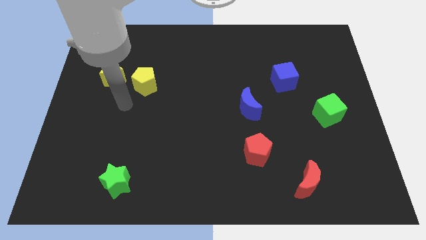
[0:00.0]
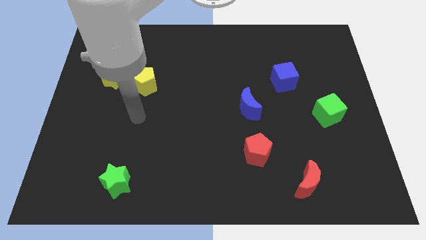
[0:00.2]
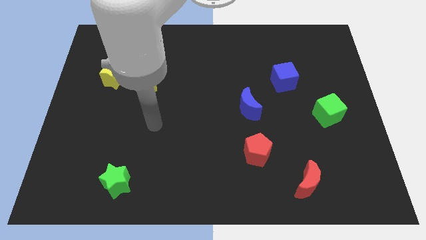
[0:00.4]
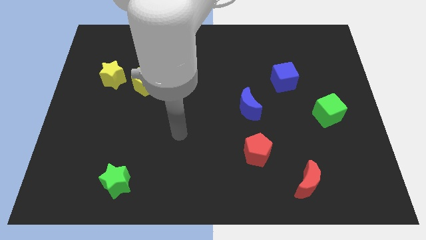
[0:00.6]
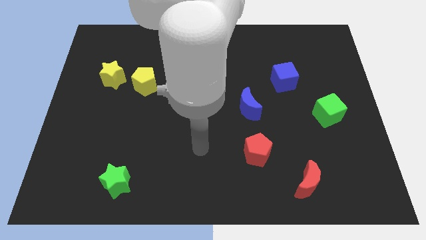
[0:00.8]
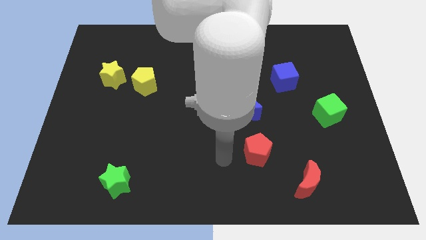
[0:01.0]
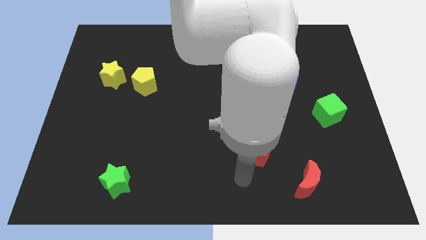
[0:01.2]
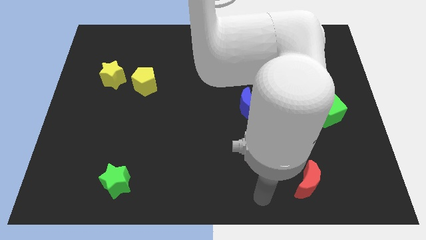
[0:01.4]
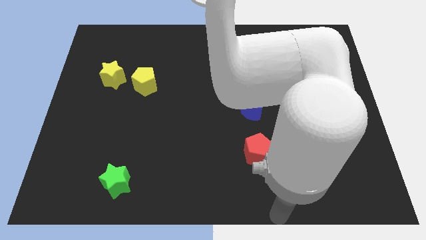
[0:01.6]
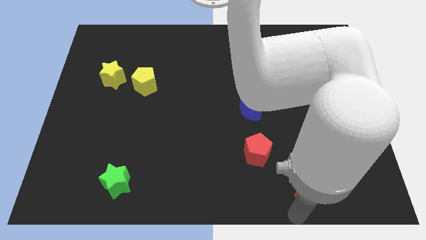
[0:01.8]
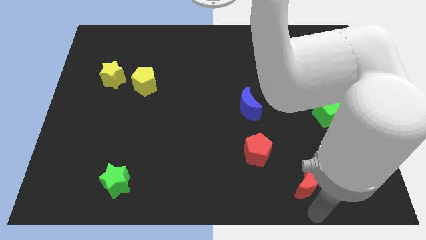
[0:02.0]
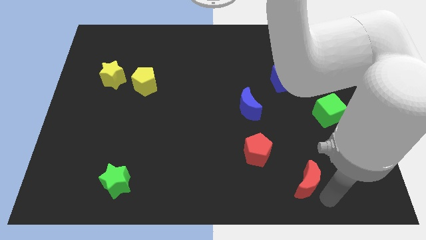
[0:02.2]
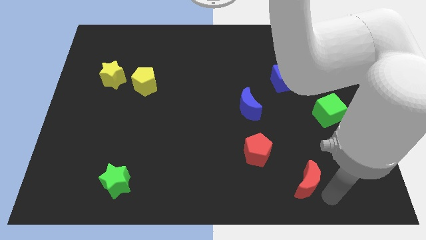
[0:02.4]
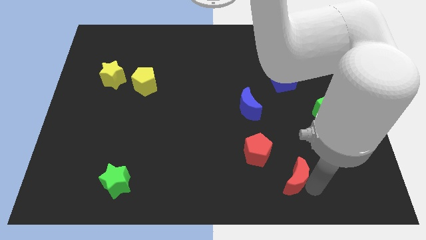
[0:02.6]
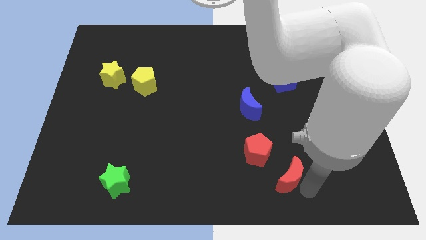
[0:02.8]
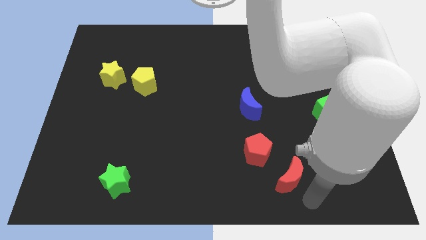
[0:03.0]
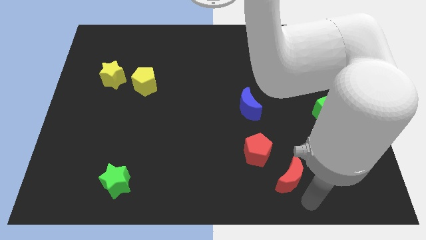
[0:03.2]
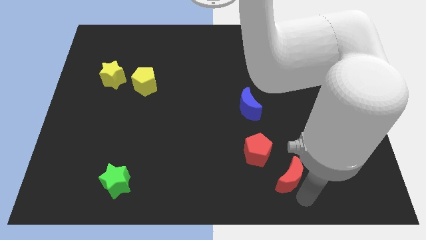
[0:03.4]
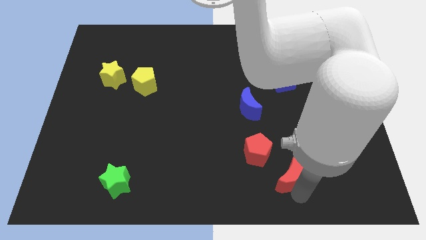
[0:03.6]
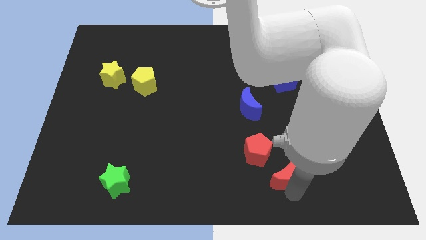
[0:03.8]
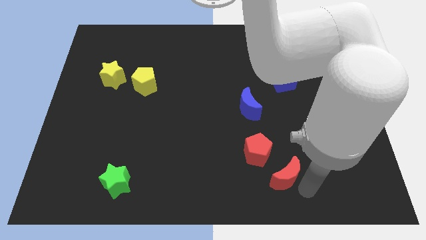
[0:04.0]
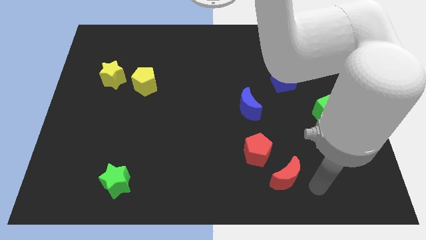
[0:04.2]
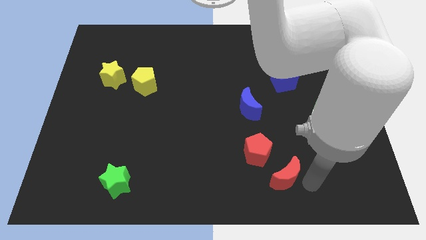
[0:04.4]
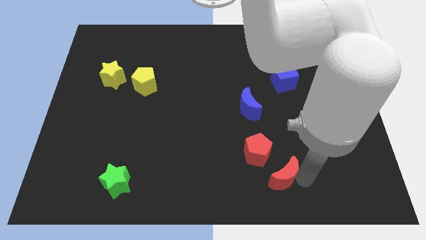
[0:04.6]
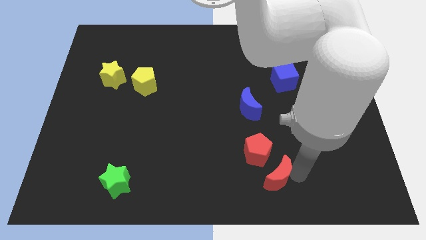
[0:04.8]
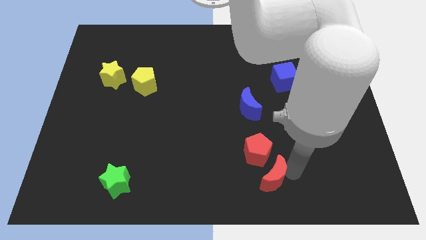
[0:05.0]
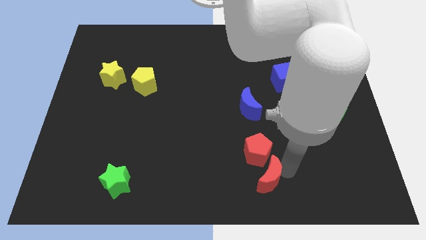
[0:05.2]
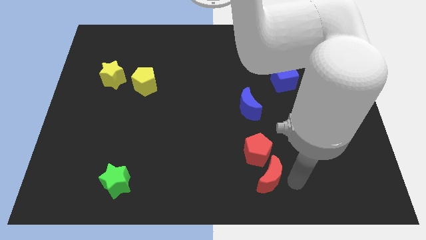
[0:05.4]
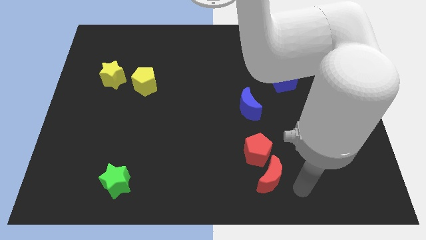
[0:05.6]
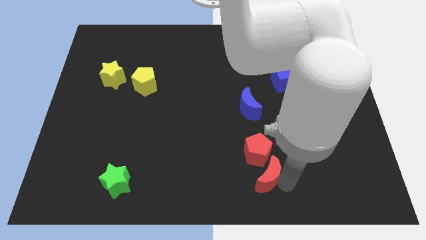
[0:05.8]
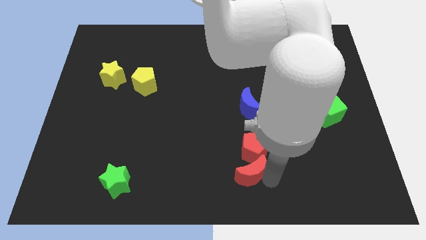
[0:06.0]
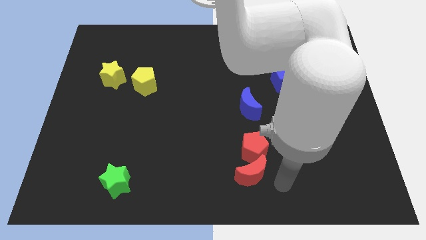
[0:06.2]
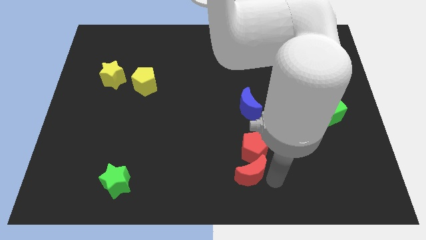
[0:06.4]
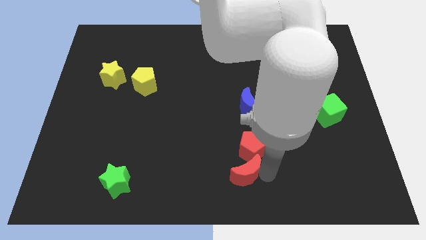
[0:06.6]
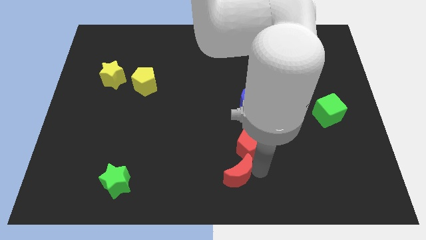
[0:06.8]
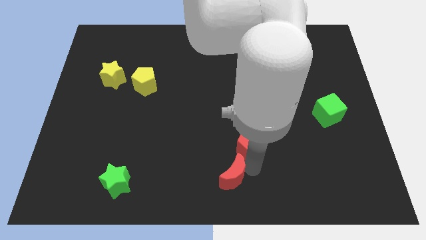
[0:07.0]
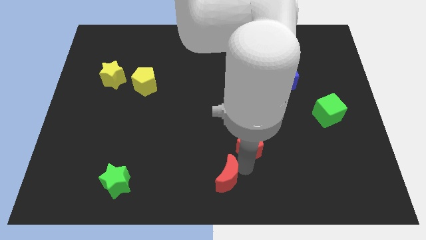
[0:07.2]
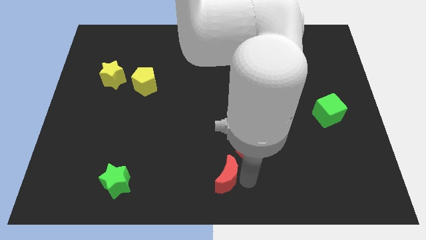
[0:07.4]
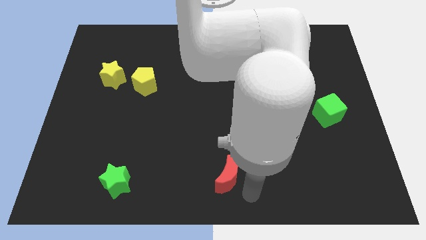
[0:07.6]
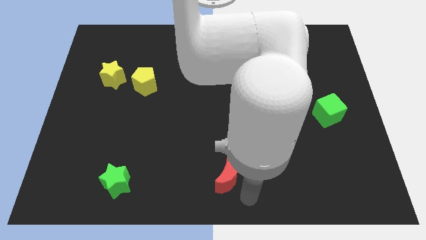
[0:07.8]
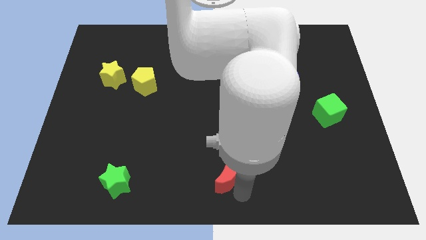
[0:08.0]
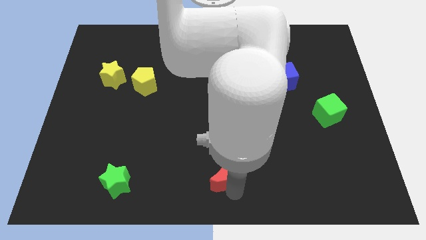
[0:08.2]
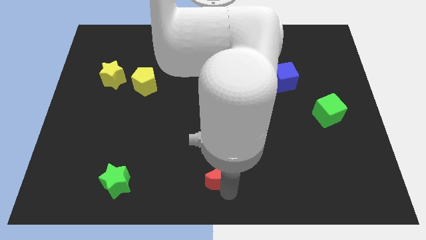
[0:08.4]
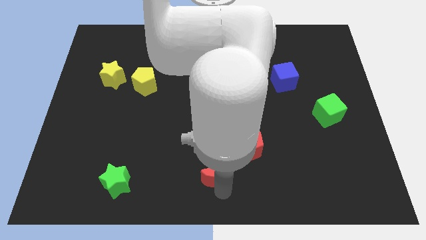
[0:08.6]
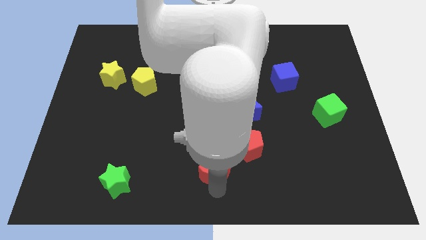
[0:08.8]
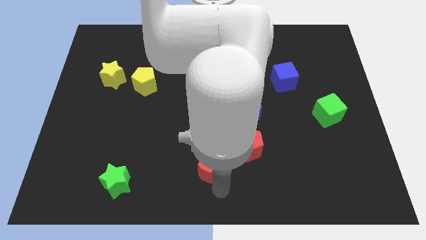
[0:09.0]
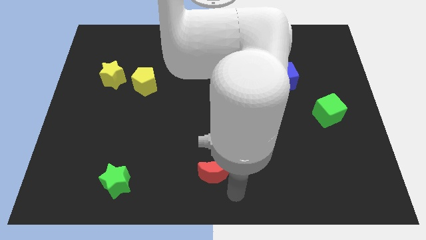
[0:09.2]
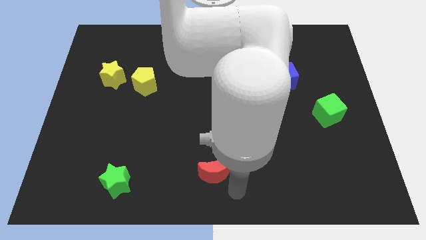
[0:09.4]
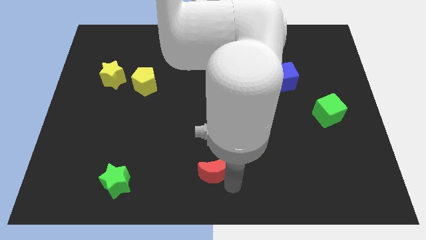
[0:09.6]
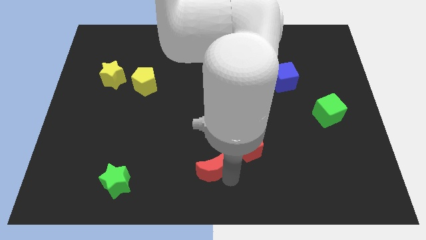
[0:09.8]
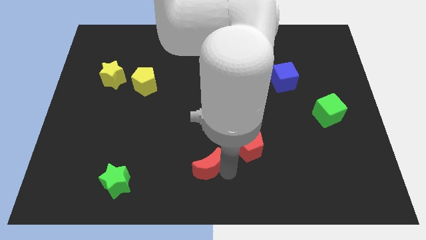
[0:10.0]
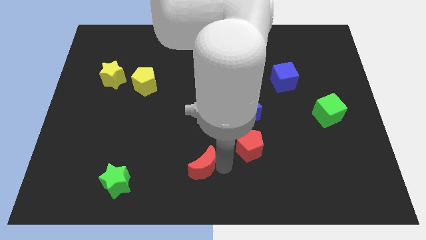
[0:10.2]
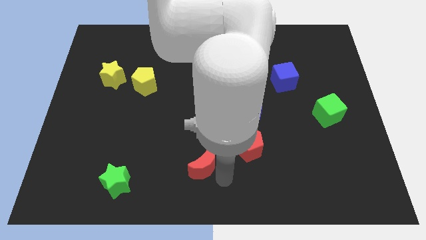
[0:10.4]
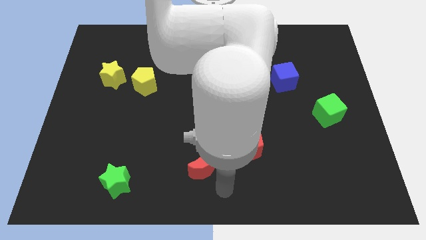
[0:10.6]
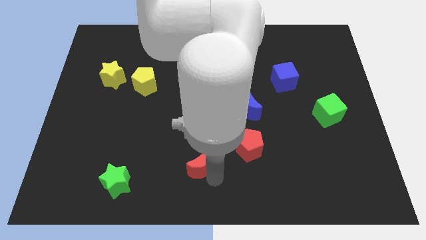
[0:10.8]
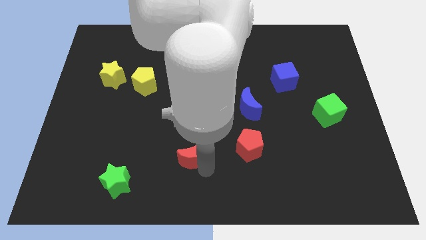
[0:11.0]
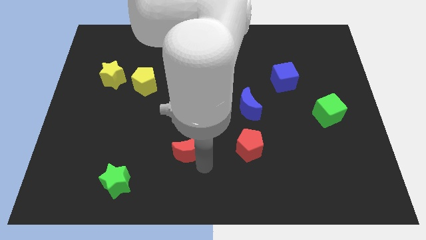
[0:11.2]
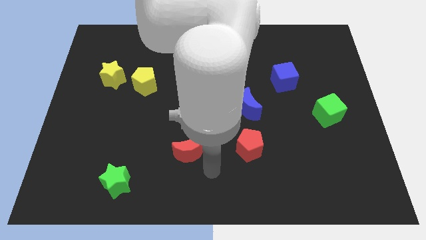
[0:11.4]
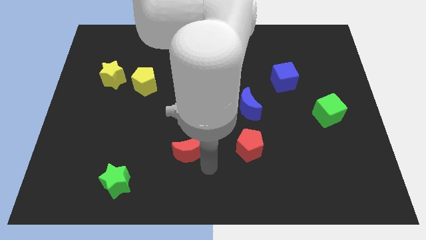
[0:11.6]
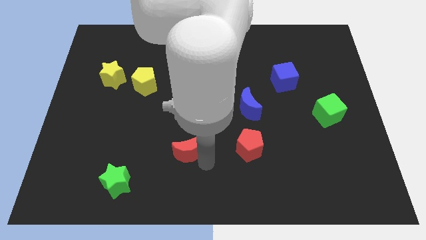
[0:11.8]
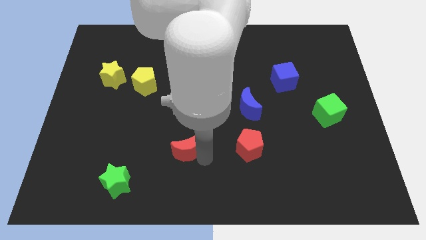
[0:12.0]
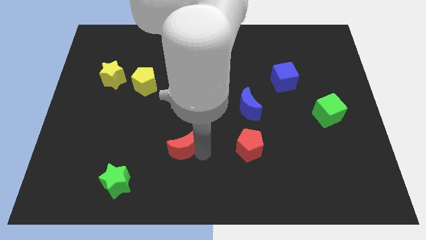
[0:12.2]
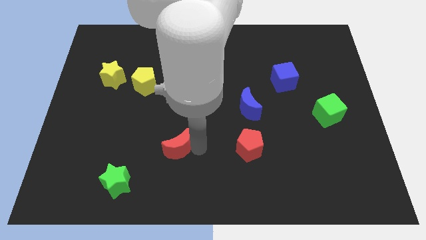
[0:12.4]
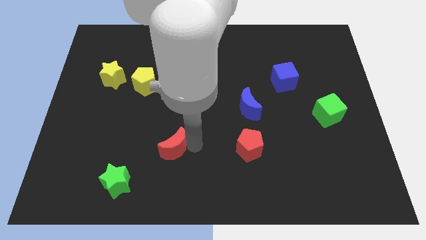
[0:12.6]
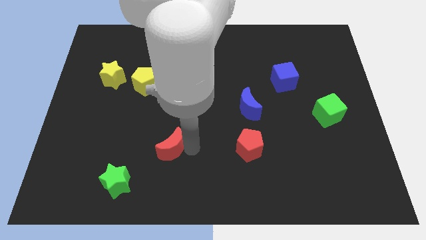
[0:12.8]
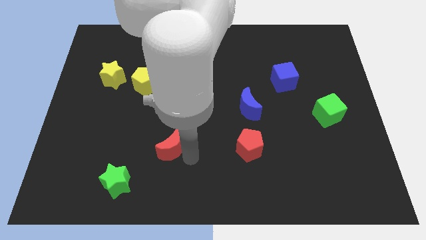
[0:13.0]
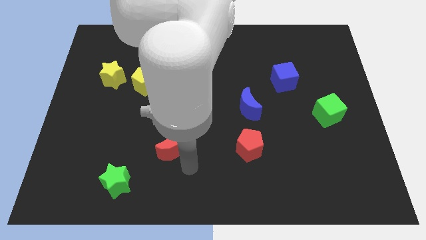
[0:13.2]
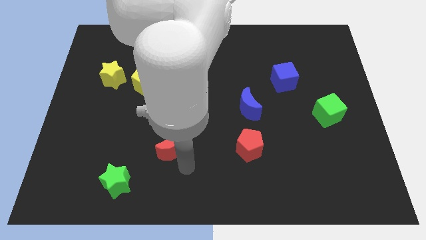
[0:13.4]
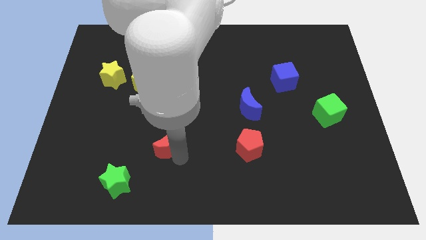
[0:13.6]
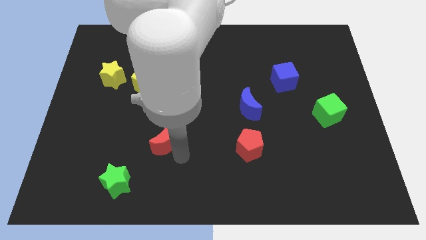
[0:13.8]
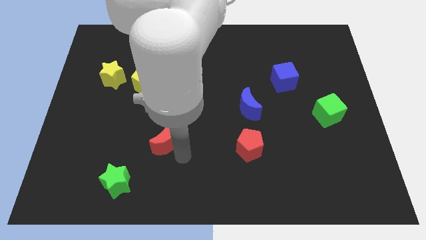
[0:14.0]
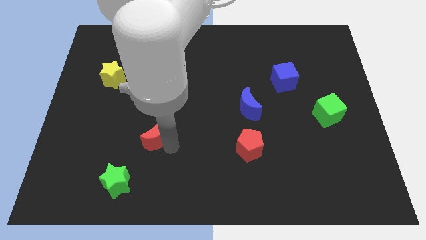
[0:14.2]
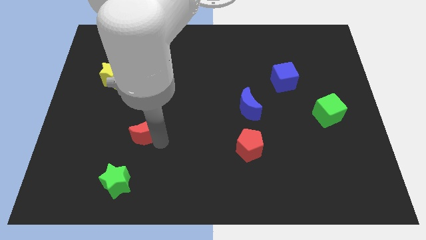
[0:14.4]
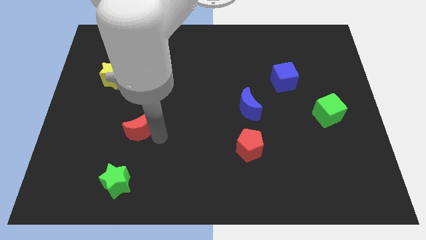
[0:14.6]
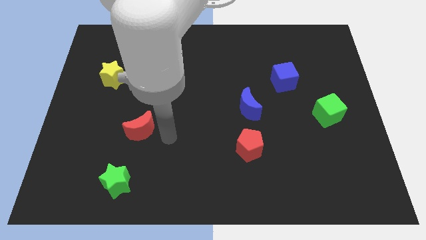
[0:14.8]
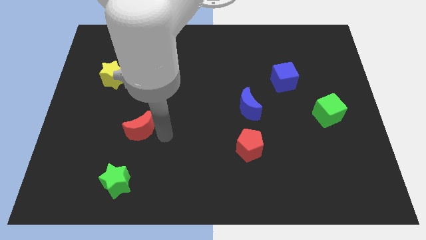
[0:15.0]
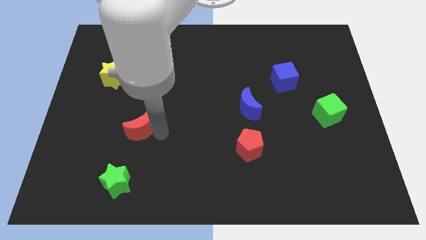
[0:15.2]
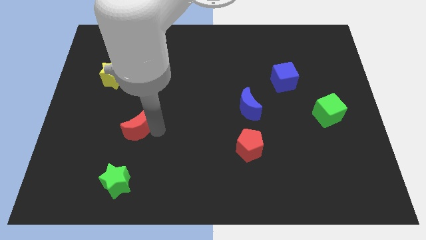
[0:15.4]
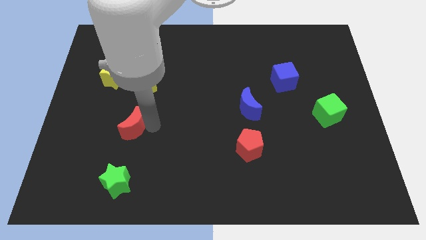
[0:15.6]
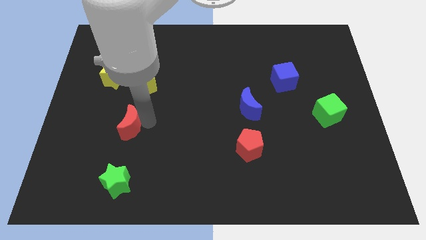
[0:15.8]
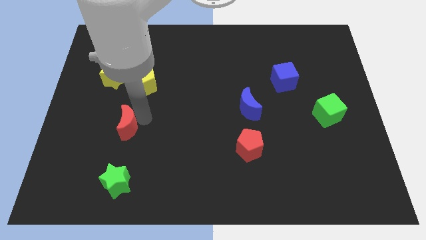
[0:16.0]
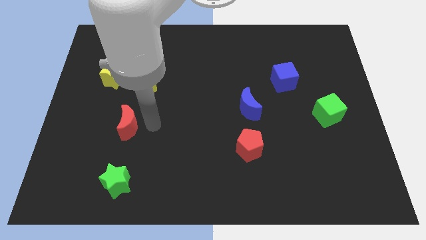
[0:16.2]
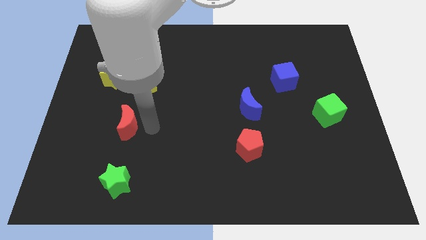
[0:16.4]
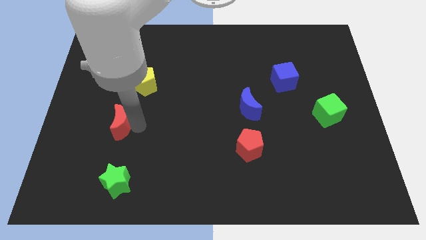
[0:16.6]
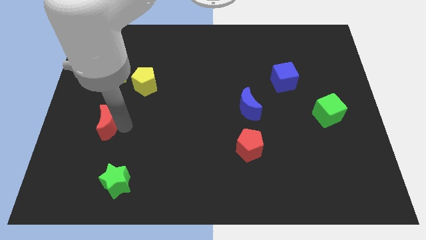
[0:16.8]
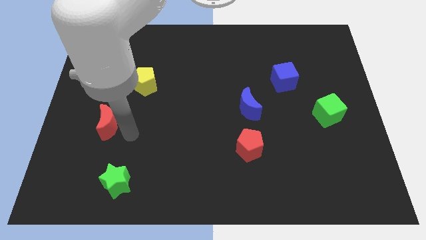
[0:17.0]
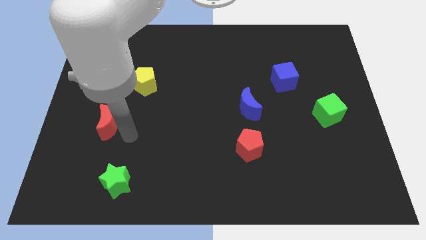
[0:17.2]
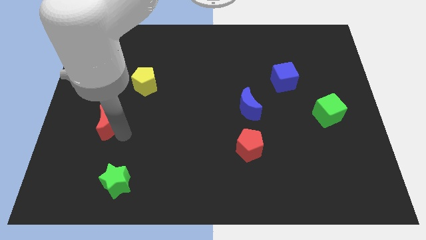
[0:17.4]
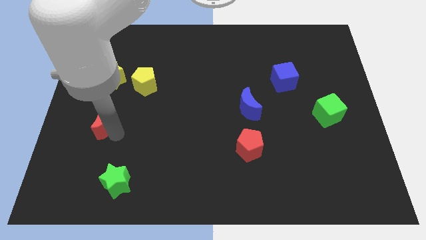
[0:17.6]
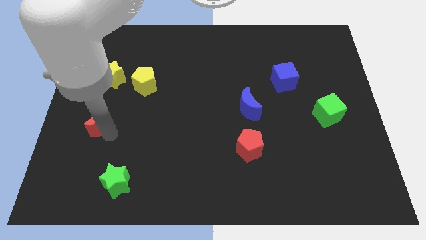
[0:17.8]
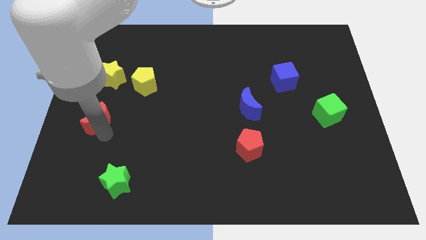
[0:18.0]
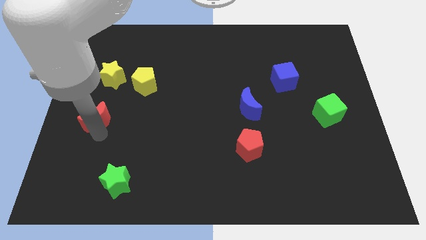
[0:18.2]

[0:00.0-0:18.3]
move the red moon to the left side of the board
